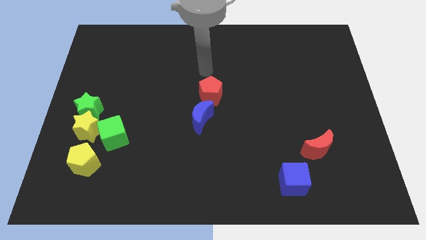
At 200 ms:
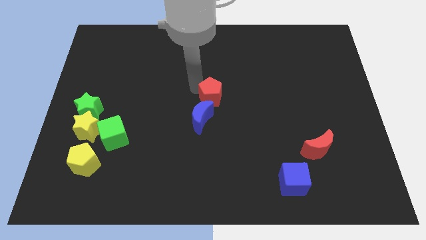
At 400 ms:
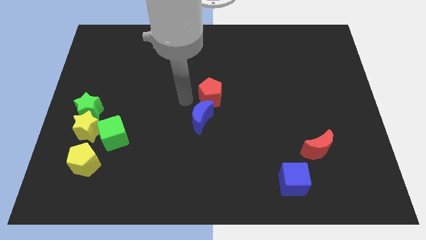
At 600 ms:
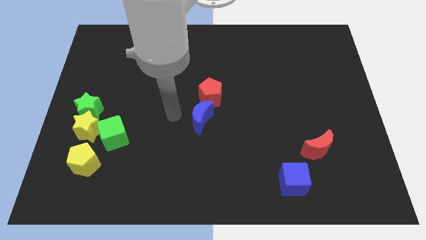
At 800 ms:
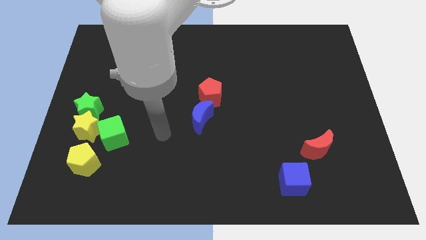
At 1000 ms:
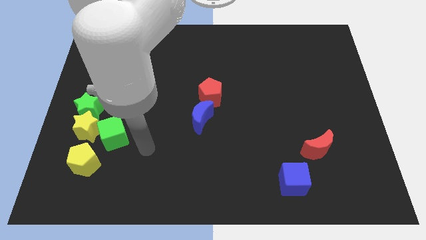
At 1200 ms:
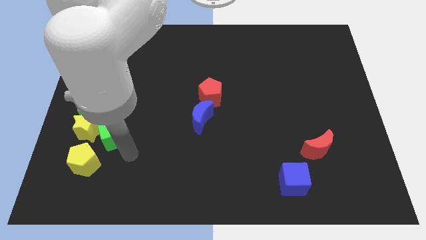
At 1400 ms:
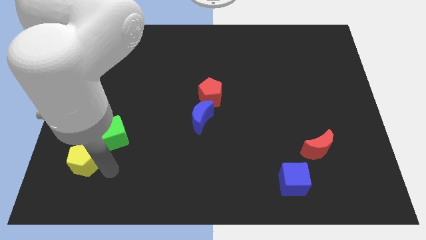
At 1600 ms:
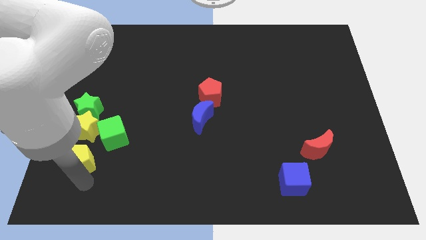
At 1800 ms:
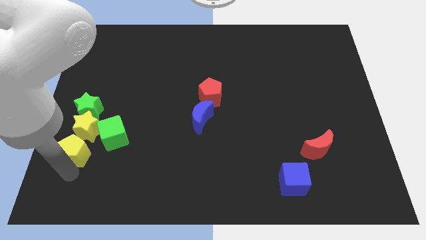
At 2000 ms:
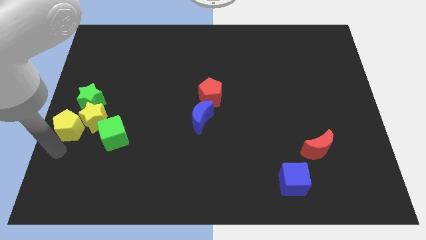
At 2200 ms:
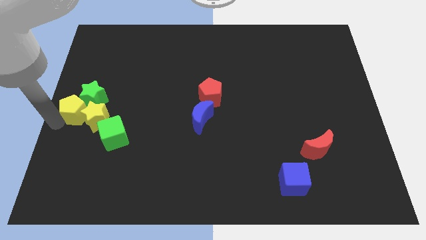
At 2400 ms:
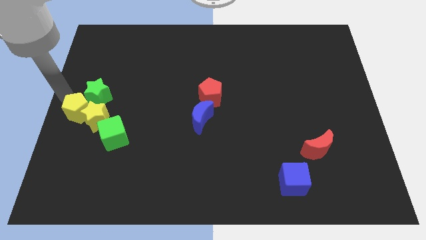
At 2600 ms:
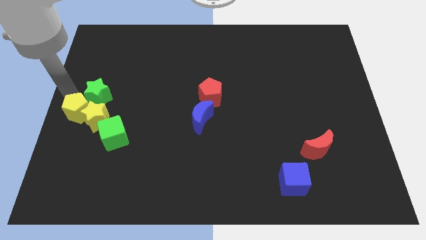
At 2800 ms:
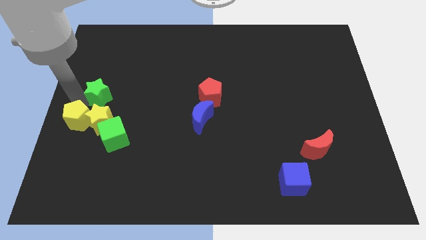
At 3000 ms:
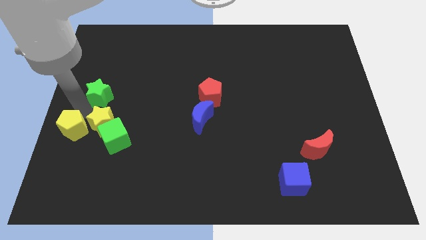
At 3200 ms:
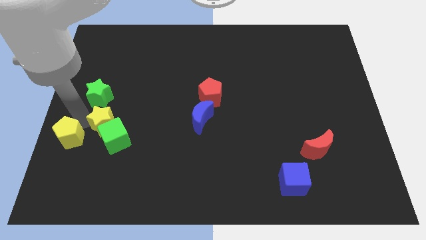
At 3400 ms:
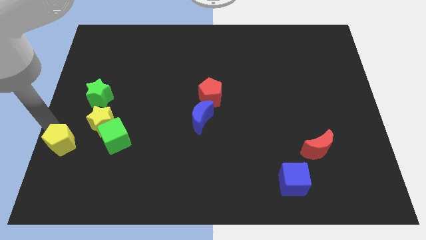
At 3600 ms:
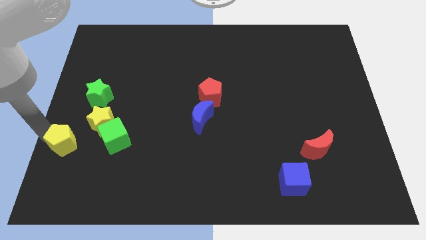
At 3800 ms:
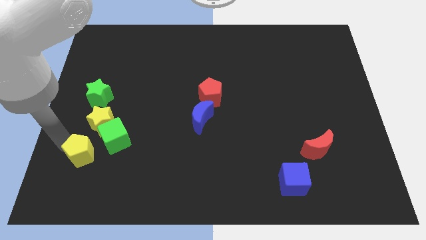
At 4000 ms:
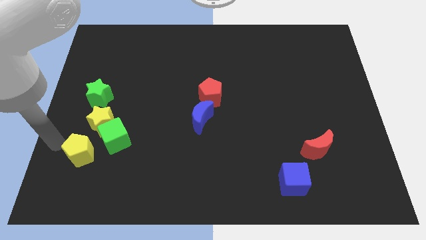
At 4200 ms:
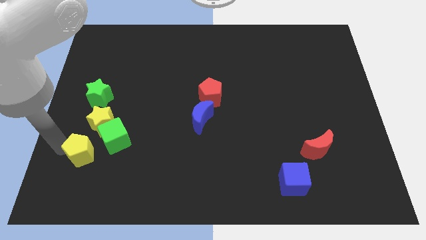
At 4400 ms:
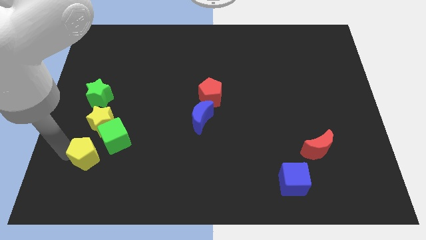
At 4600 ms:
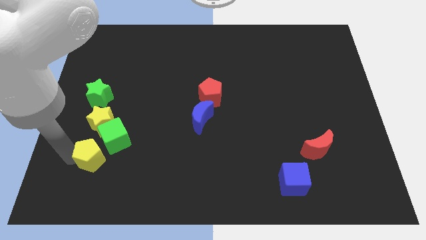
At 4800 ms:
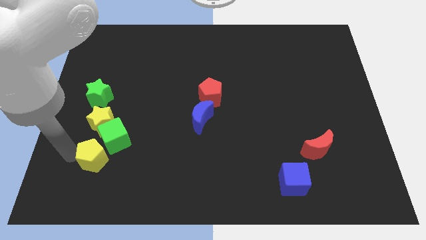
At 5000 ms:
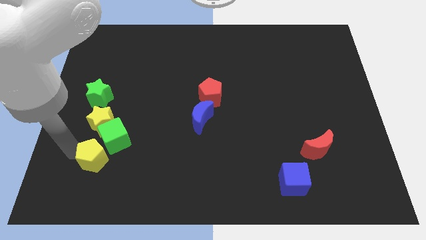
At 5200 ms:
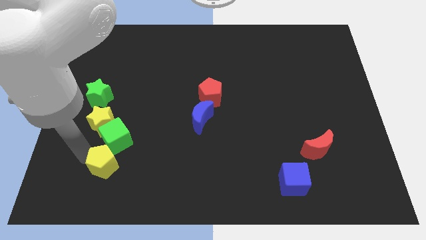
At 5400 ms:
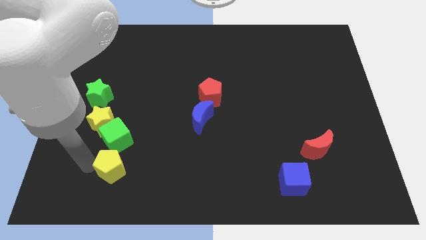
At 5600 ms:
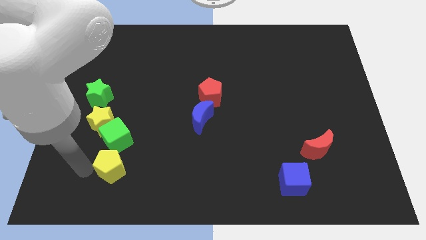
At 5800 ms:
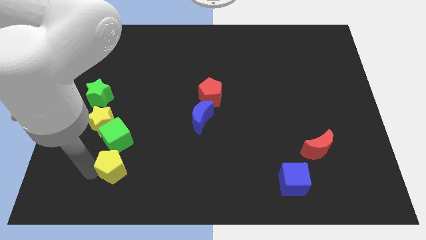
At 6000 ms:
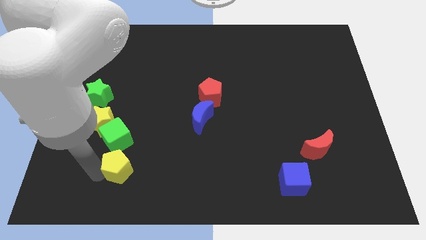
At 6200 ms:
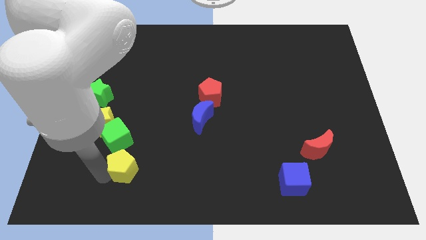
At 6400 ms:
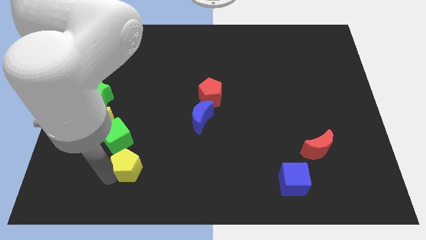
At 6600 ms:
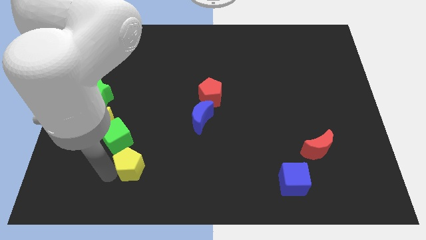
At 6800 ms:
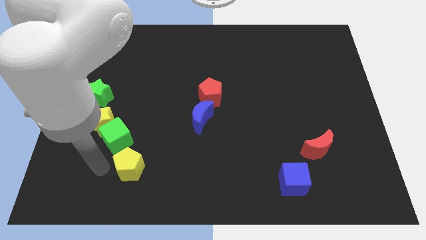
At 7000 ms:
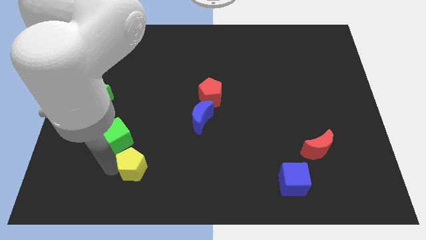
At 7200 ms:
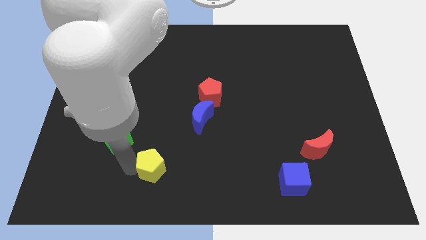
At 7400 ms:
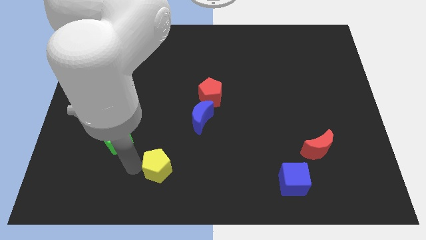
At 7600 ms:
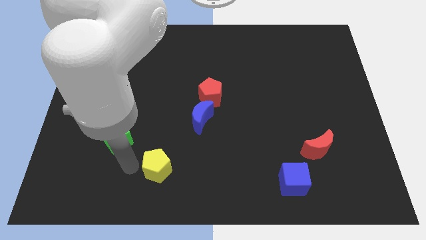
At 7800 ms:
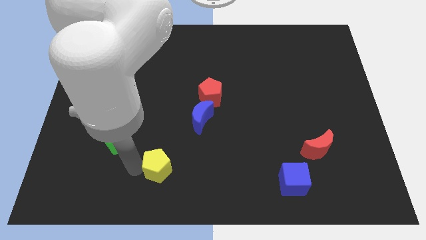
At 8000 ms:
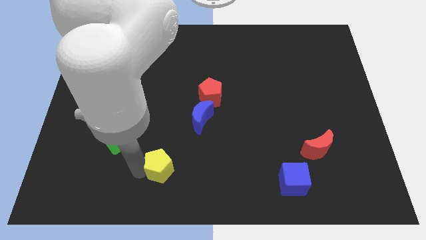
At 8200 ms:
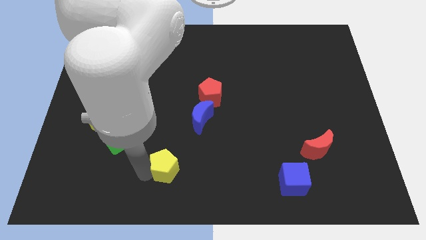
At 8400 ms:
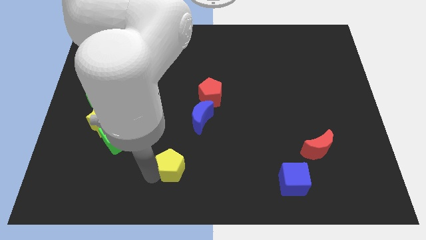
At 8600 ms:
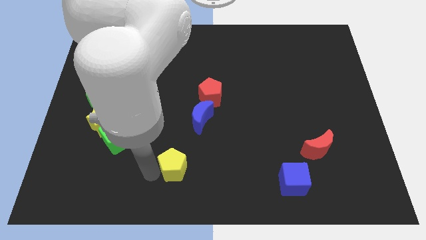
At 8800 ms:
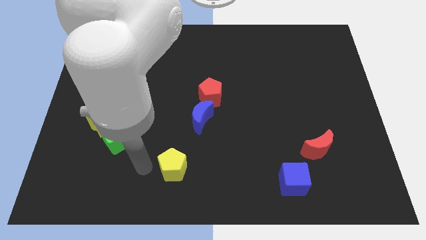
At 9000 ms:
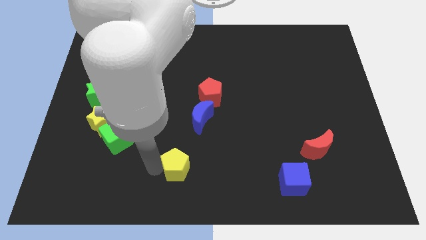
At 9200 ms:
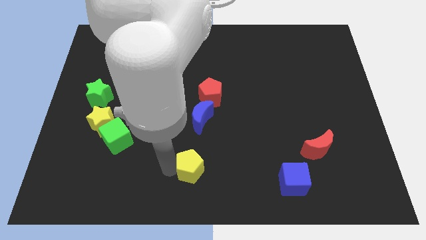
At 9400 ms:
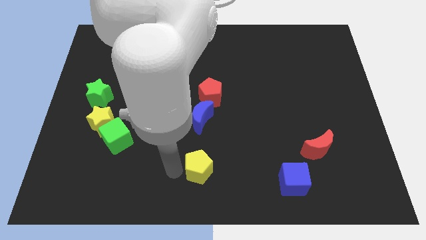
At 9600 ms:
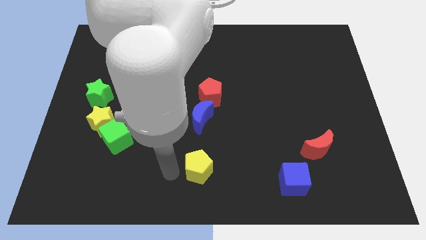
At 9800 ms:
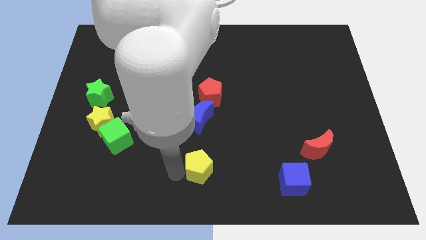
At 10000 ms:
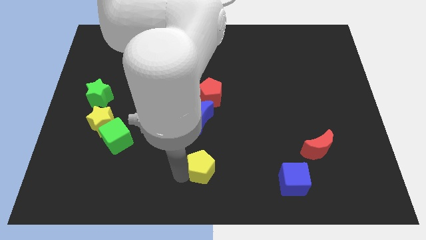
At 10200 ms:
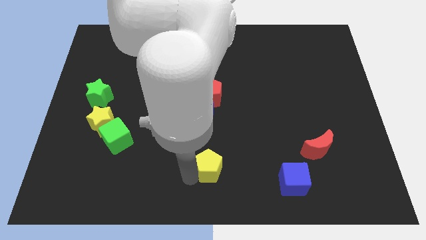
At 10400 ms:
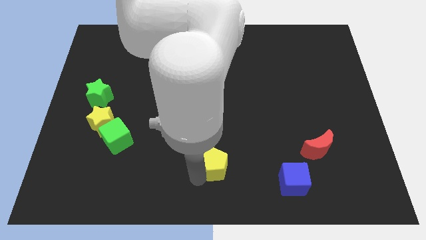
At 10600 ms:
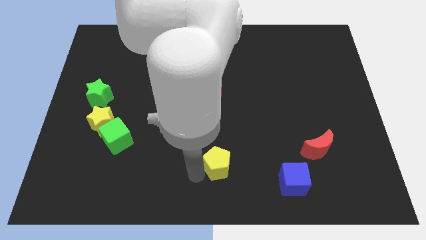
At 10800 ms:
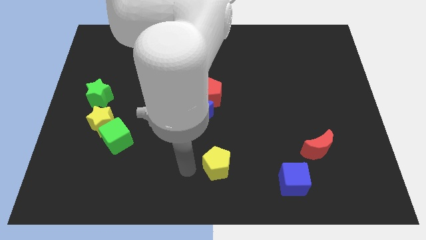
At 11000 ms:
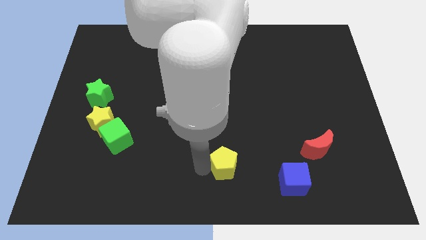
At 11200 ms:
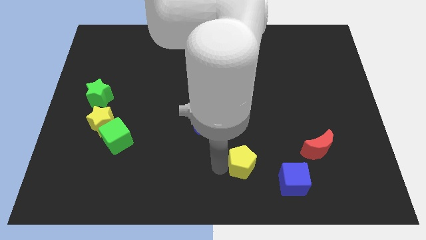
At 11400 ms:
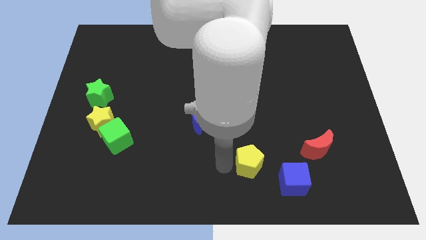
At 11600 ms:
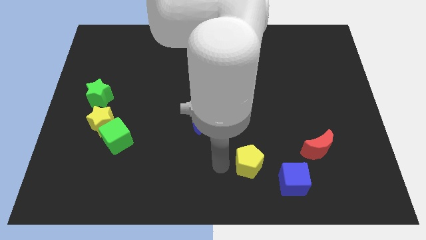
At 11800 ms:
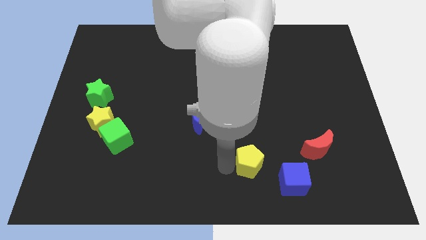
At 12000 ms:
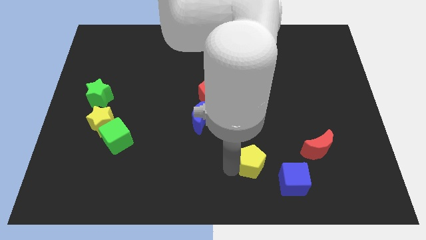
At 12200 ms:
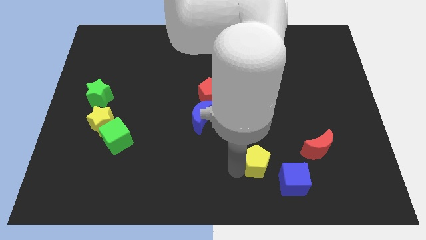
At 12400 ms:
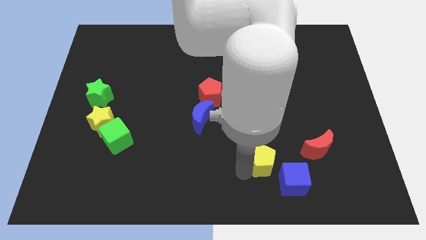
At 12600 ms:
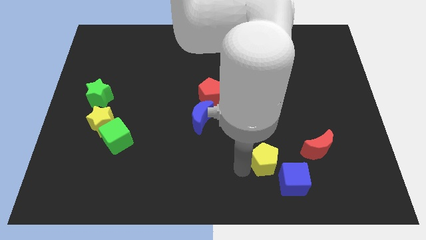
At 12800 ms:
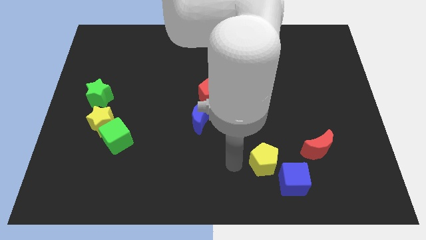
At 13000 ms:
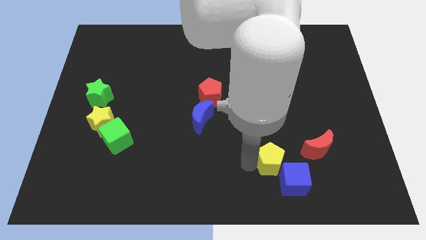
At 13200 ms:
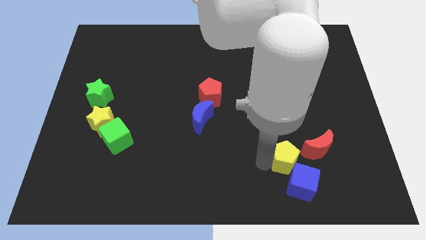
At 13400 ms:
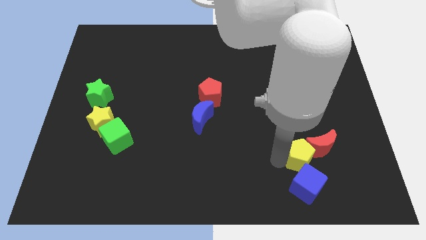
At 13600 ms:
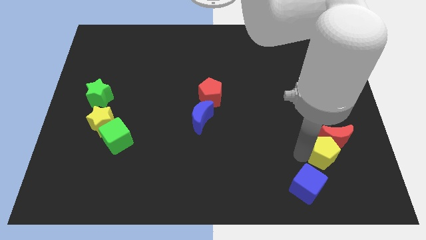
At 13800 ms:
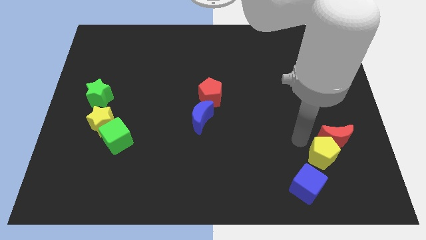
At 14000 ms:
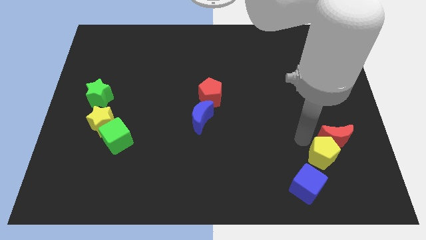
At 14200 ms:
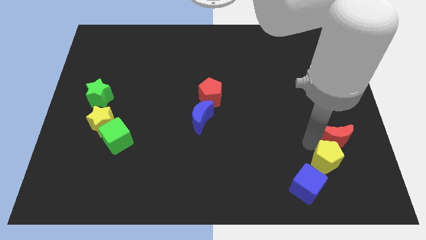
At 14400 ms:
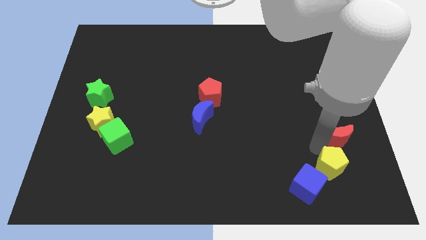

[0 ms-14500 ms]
move the yellow pentagon just right of the blue cube
